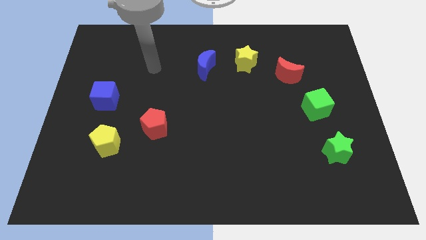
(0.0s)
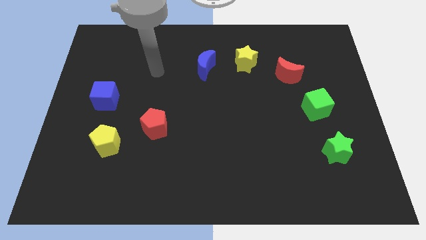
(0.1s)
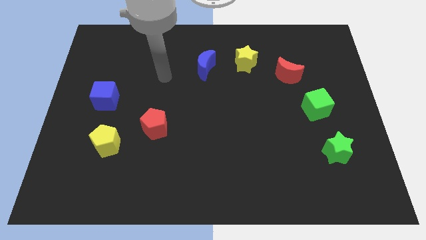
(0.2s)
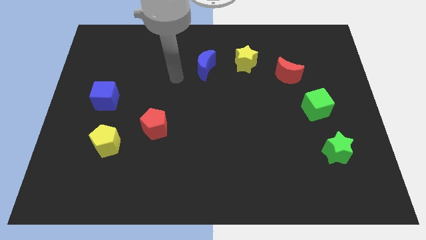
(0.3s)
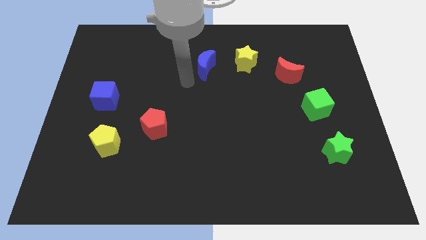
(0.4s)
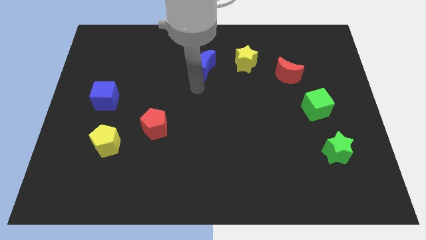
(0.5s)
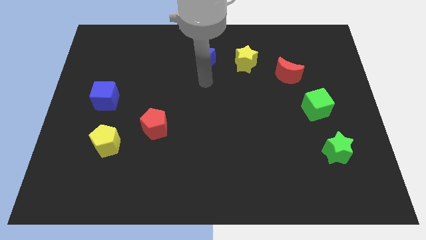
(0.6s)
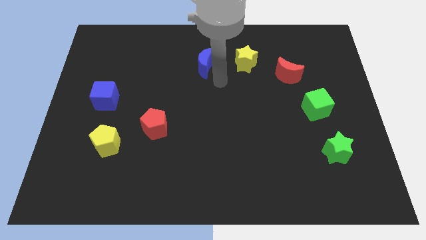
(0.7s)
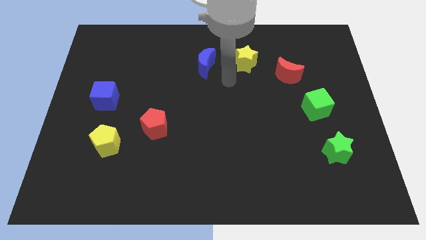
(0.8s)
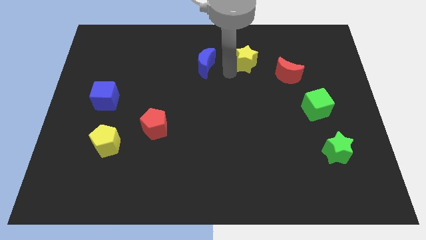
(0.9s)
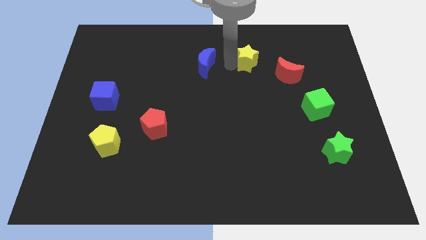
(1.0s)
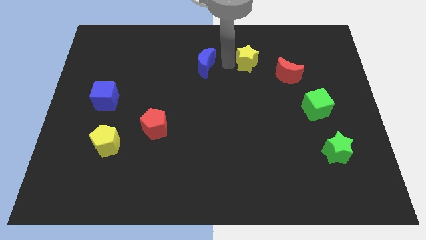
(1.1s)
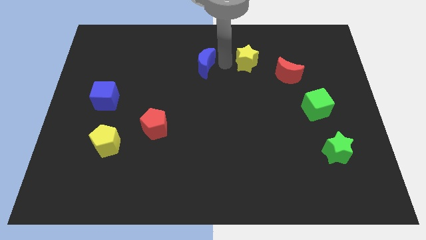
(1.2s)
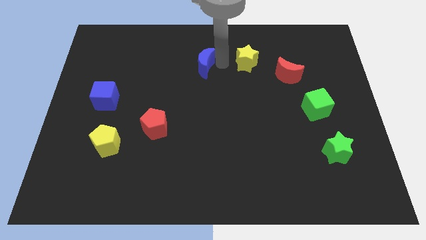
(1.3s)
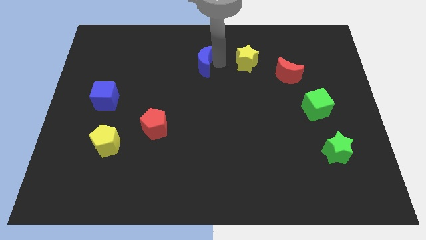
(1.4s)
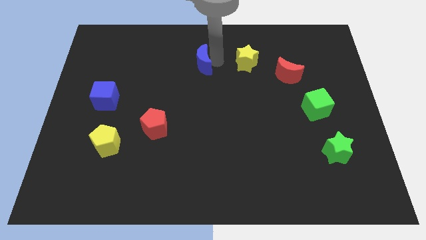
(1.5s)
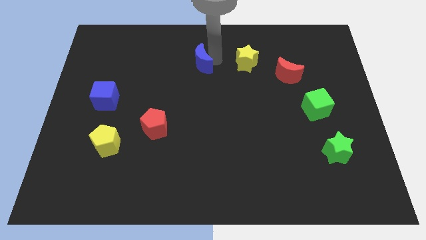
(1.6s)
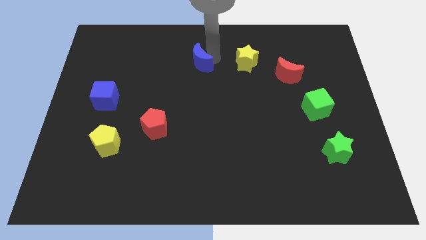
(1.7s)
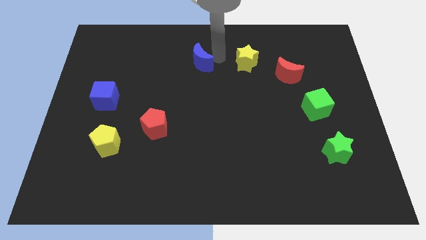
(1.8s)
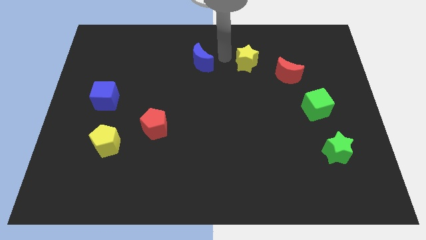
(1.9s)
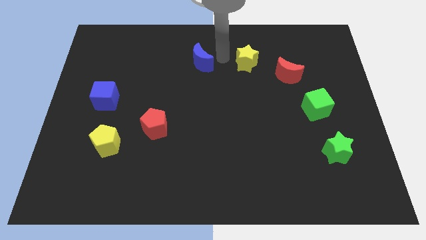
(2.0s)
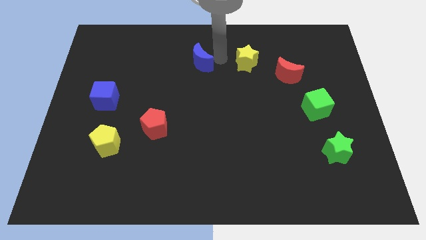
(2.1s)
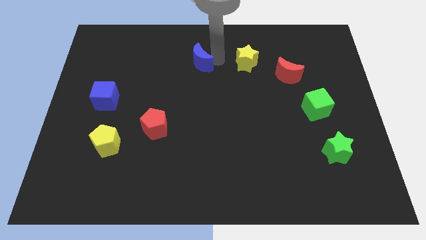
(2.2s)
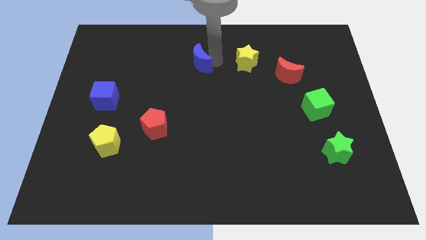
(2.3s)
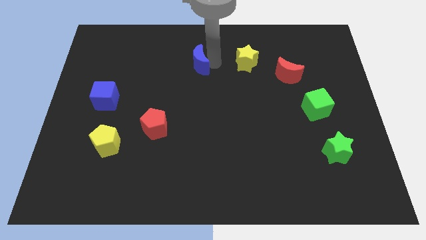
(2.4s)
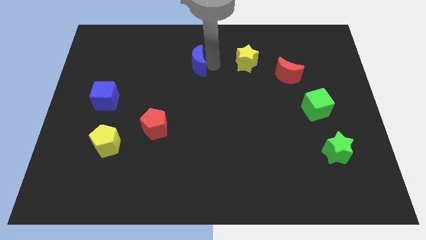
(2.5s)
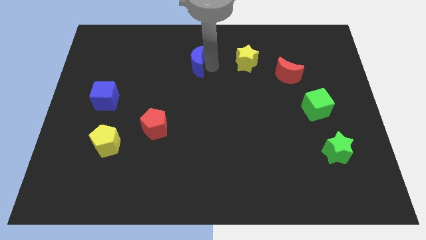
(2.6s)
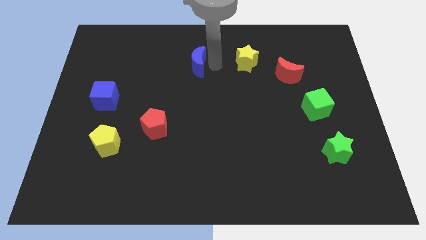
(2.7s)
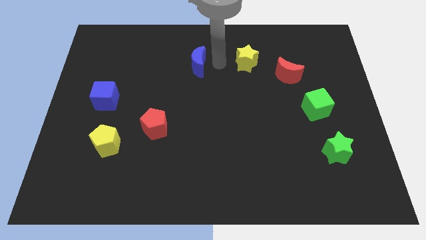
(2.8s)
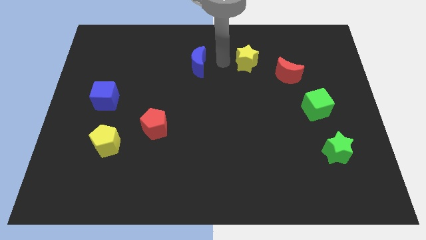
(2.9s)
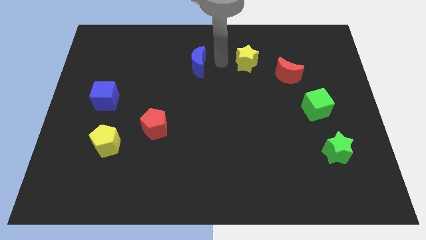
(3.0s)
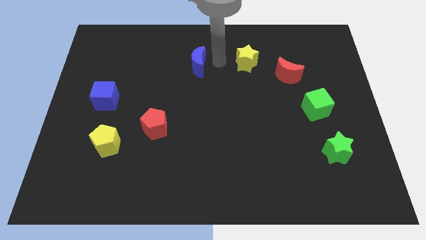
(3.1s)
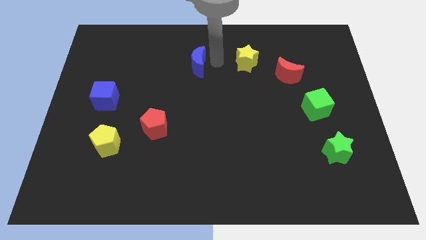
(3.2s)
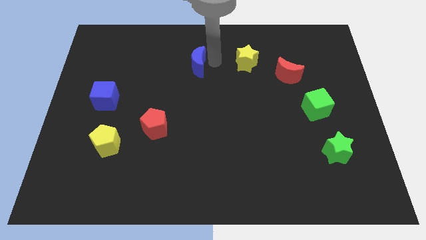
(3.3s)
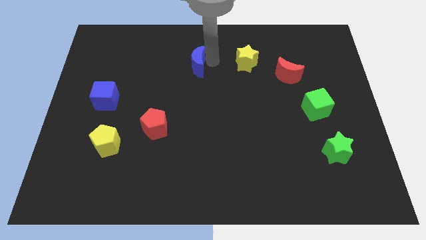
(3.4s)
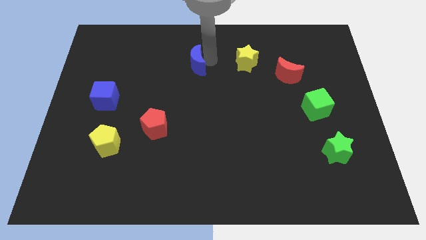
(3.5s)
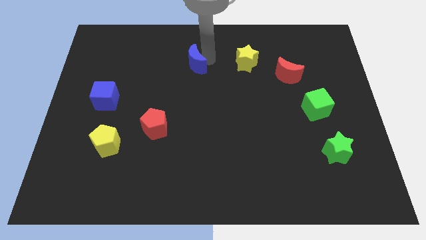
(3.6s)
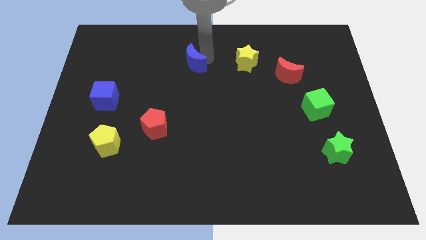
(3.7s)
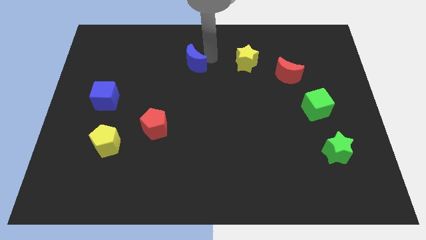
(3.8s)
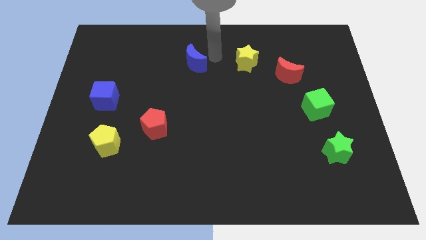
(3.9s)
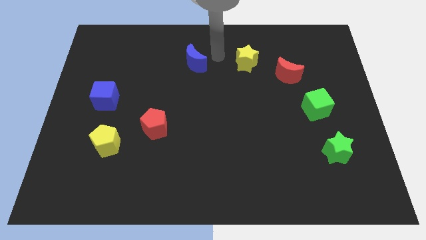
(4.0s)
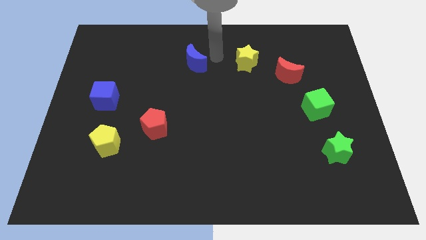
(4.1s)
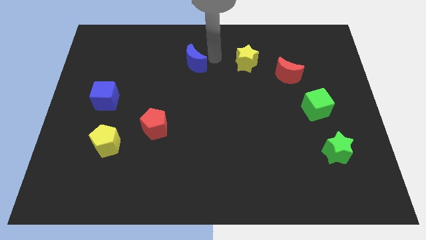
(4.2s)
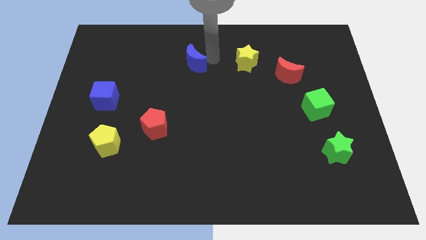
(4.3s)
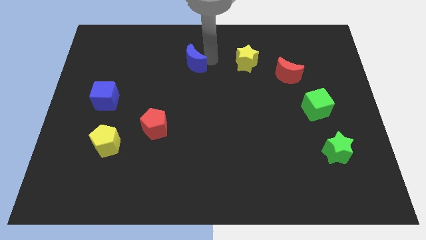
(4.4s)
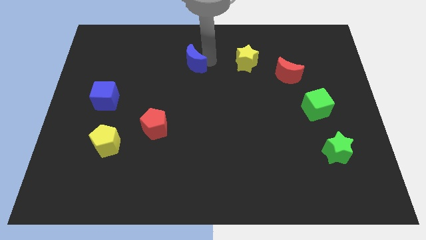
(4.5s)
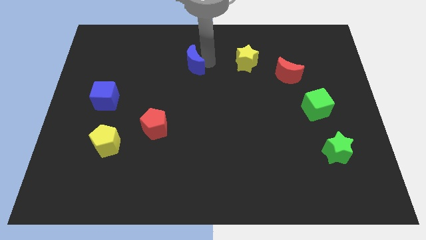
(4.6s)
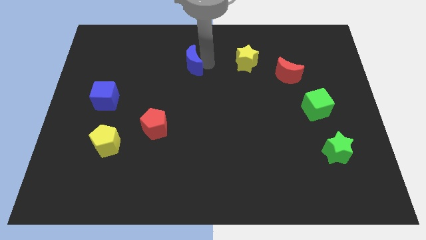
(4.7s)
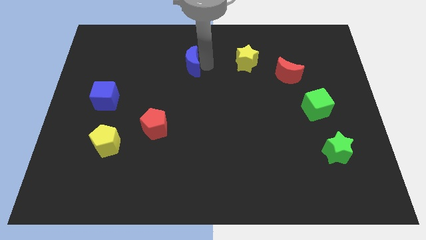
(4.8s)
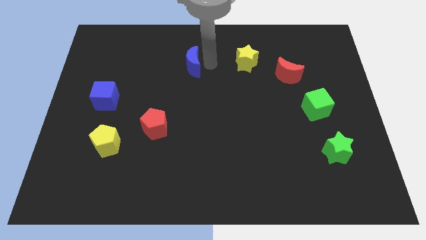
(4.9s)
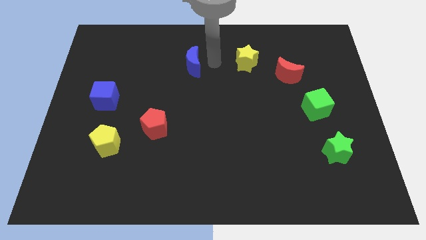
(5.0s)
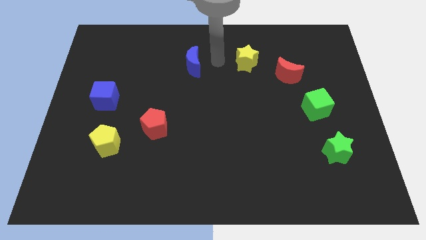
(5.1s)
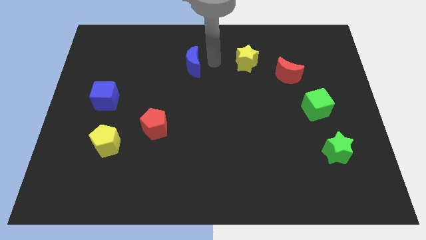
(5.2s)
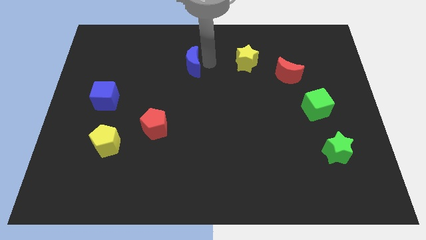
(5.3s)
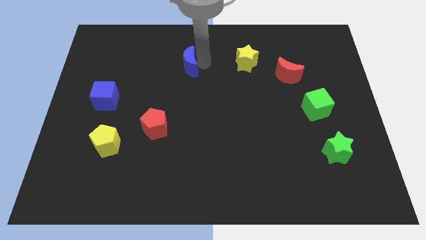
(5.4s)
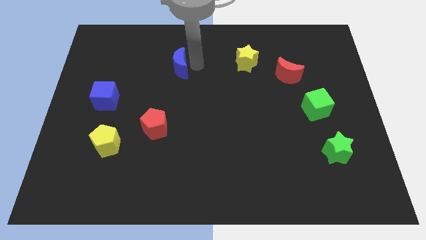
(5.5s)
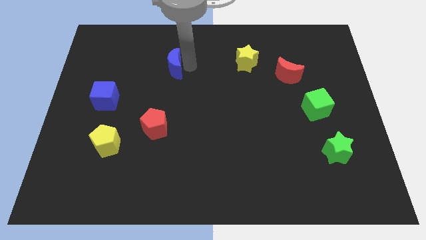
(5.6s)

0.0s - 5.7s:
slightly slide the blue moon left

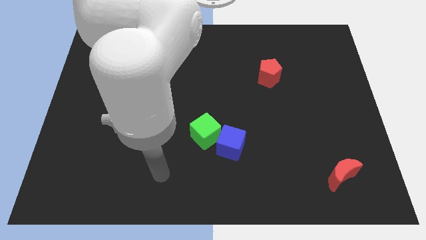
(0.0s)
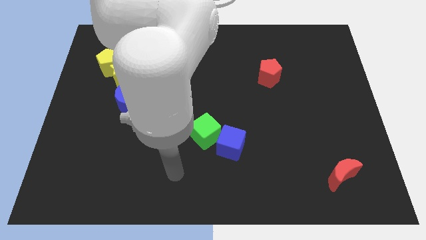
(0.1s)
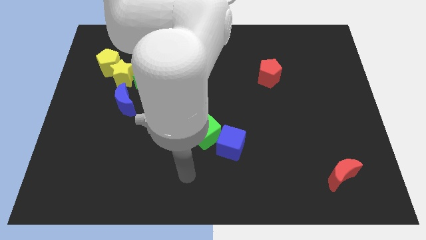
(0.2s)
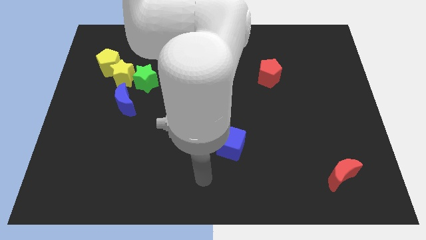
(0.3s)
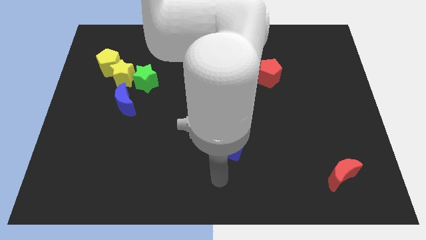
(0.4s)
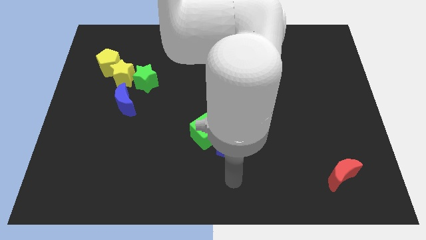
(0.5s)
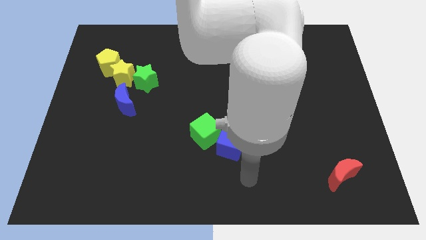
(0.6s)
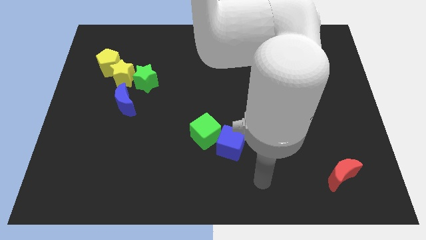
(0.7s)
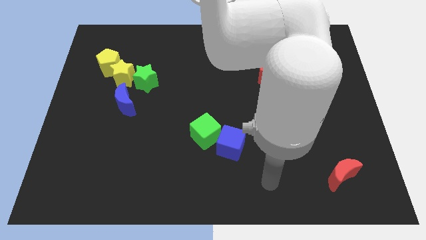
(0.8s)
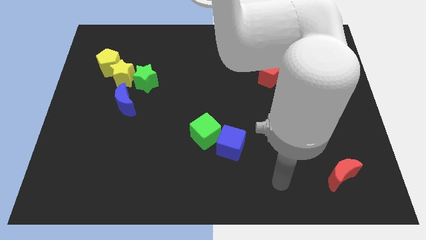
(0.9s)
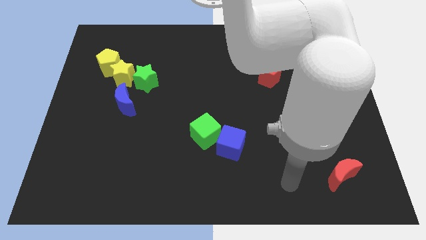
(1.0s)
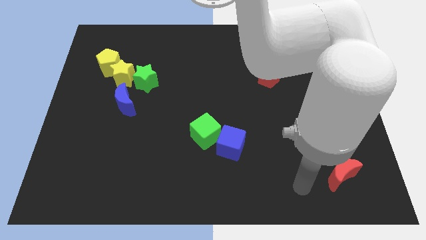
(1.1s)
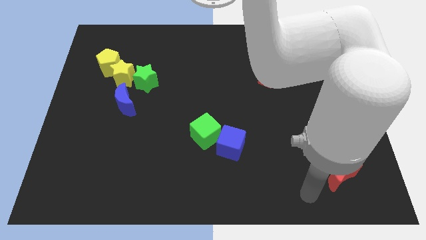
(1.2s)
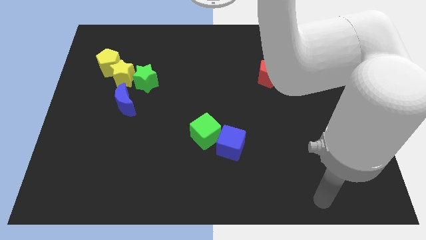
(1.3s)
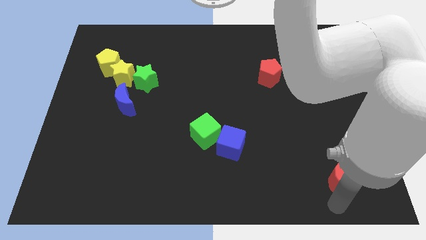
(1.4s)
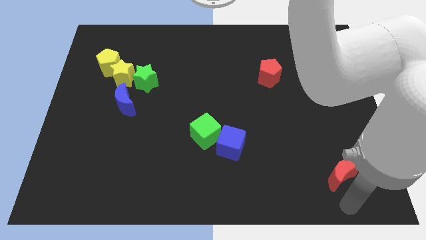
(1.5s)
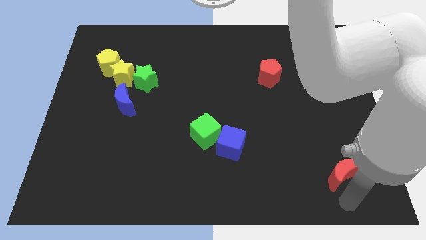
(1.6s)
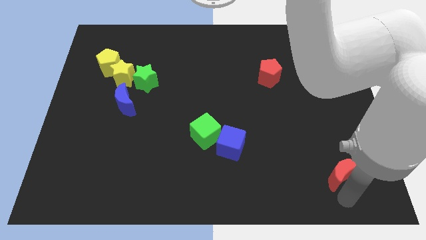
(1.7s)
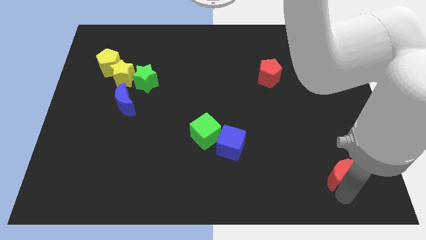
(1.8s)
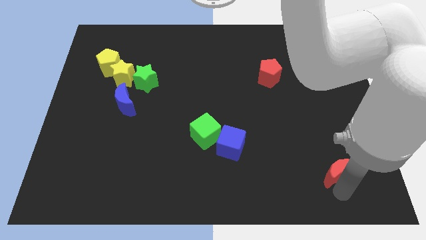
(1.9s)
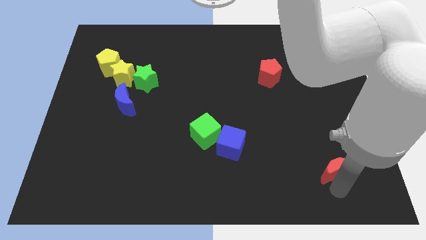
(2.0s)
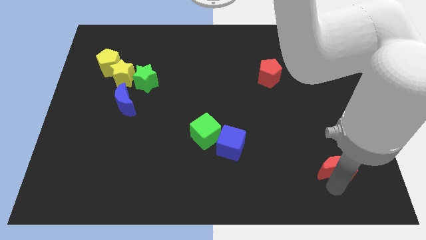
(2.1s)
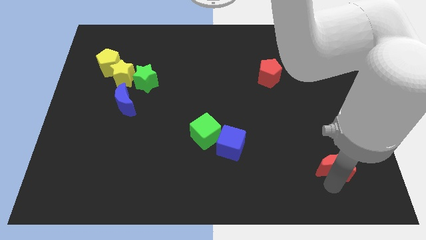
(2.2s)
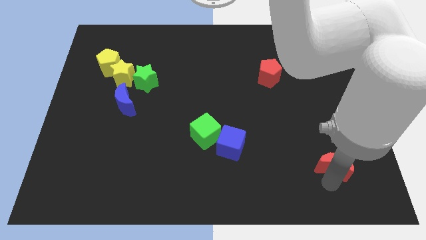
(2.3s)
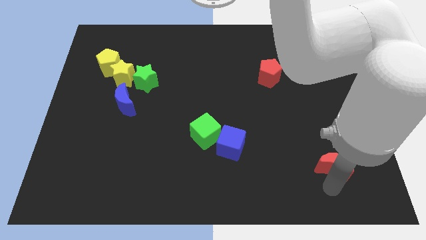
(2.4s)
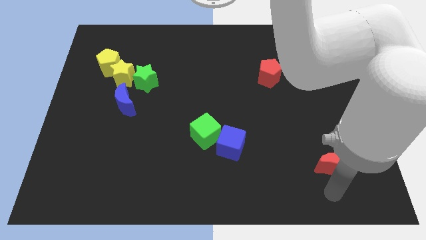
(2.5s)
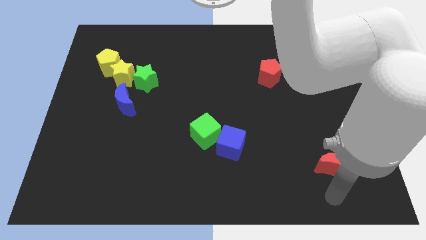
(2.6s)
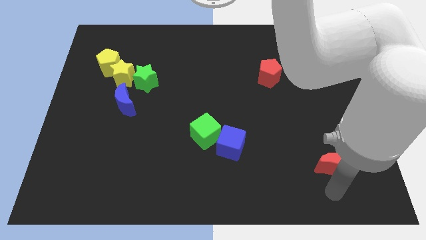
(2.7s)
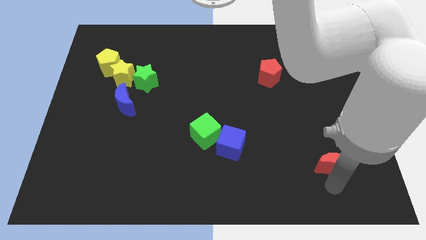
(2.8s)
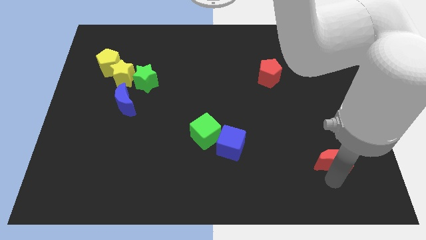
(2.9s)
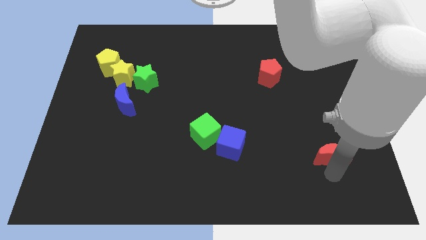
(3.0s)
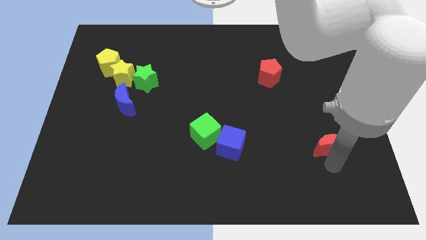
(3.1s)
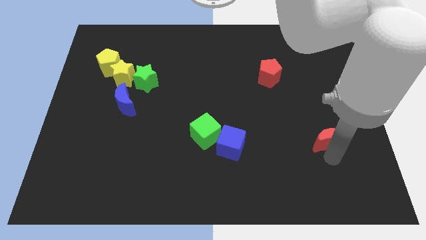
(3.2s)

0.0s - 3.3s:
slightly push the red moon upwards
